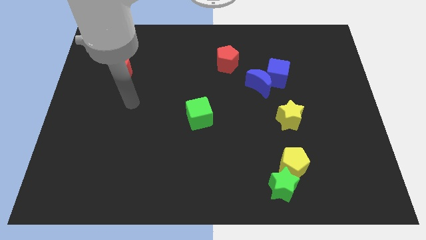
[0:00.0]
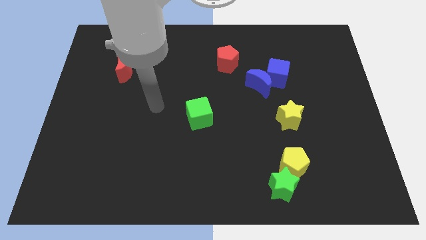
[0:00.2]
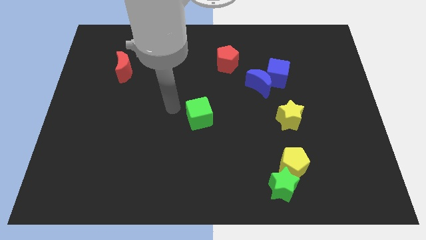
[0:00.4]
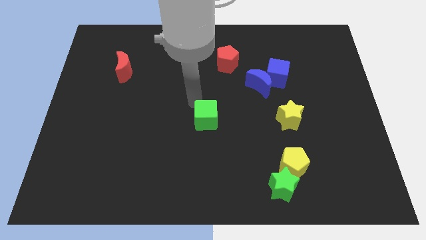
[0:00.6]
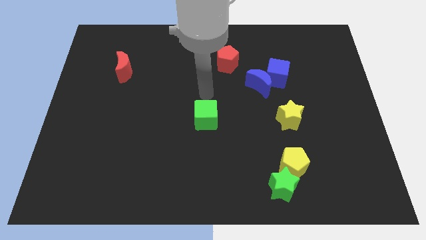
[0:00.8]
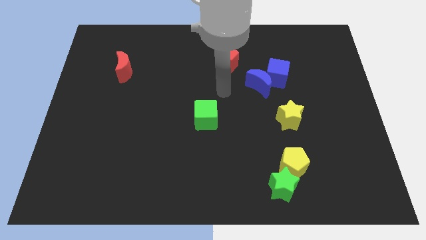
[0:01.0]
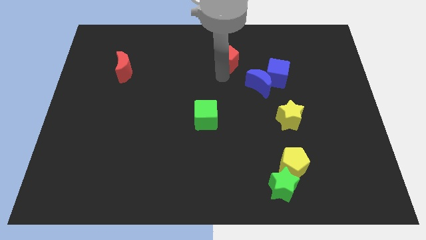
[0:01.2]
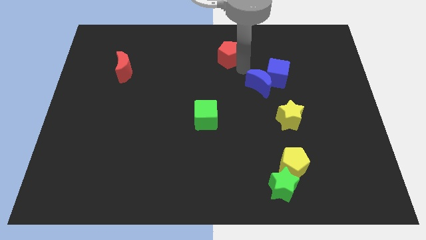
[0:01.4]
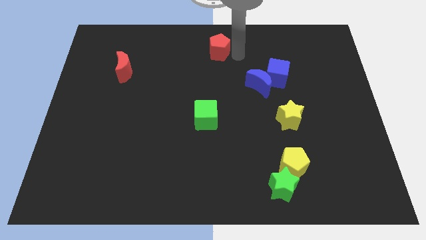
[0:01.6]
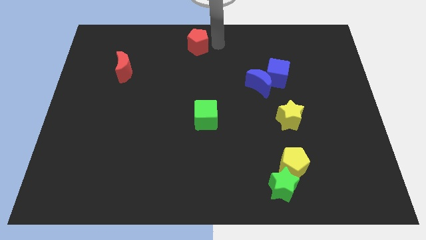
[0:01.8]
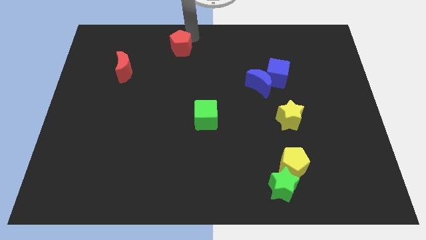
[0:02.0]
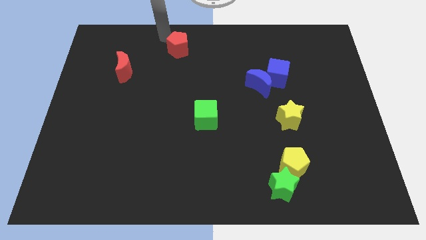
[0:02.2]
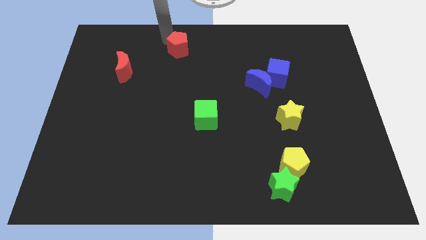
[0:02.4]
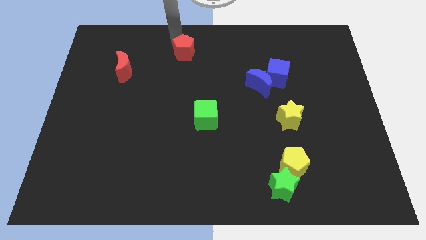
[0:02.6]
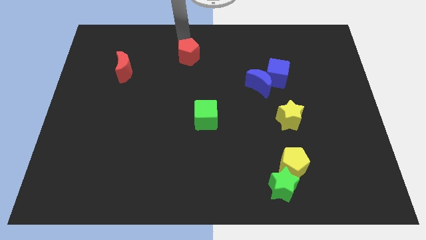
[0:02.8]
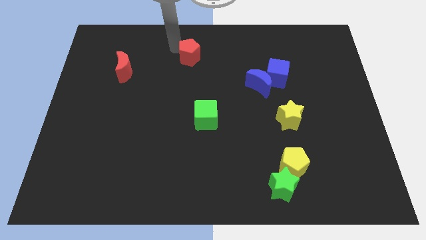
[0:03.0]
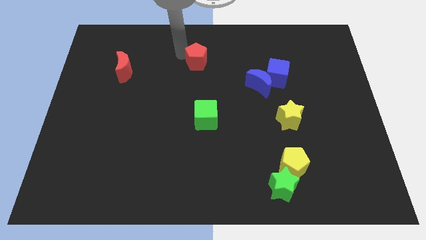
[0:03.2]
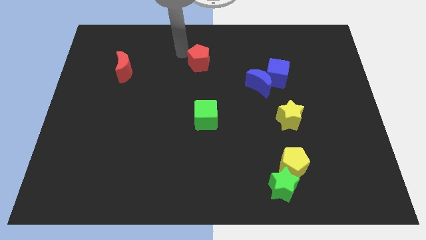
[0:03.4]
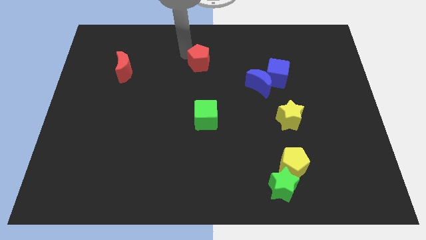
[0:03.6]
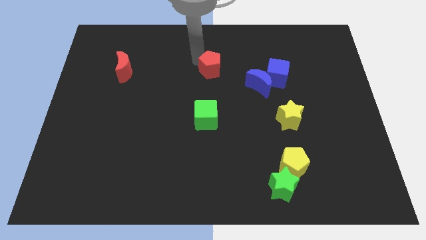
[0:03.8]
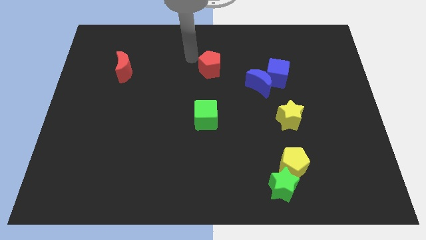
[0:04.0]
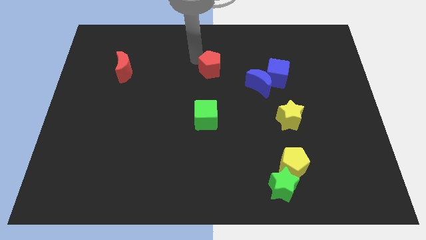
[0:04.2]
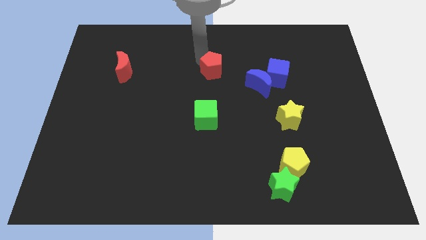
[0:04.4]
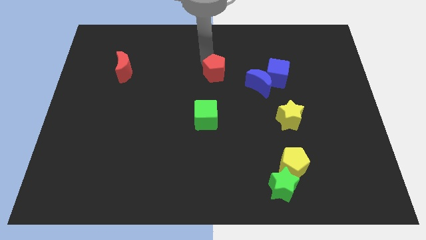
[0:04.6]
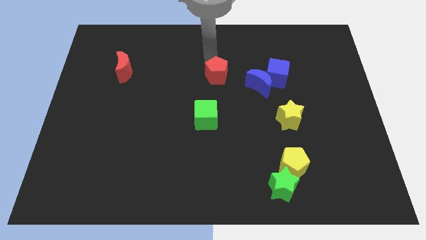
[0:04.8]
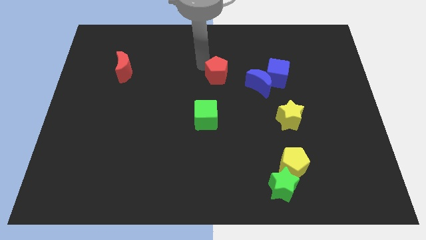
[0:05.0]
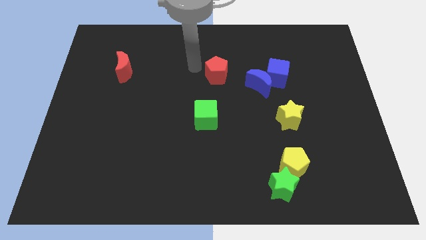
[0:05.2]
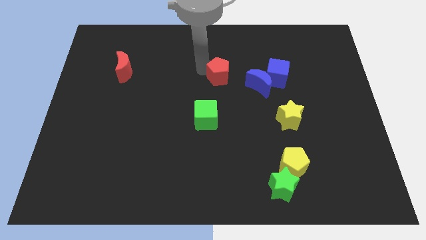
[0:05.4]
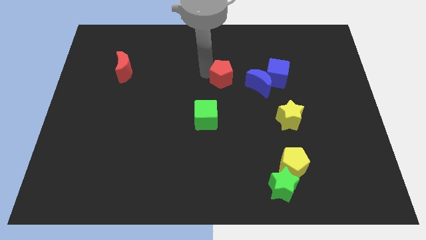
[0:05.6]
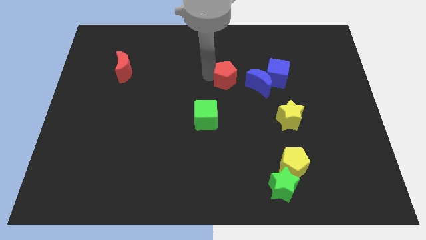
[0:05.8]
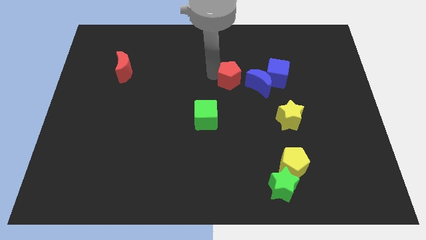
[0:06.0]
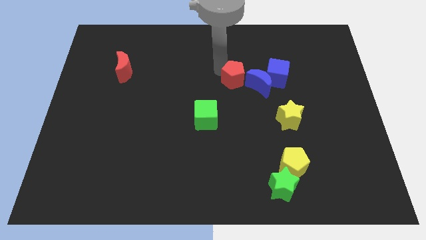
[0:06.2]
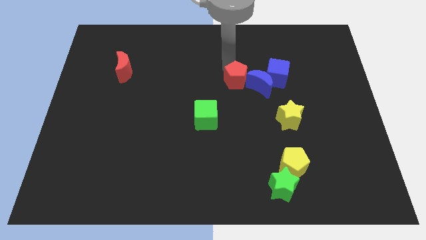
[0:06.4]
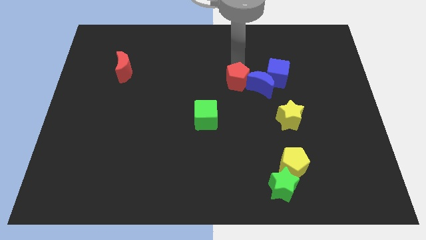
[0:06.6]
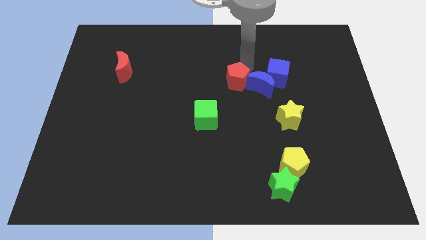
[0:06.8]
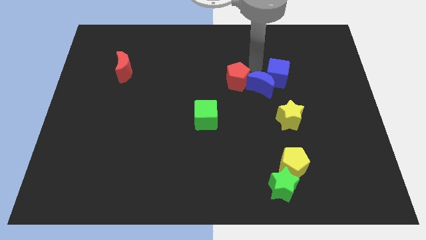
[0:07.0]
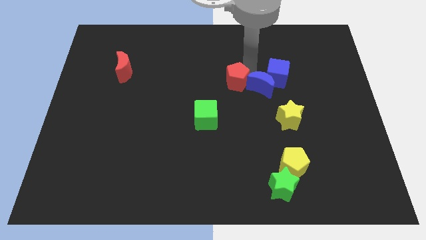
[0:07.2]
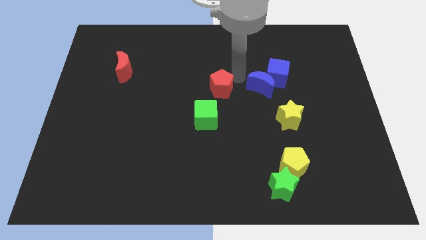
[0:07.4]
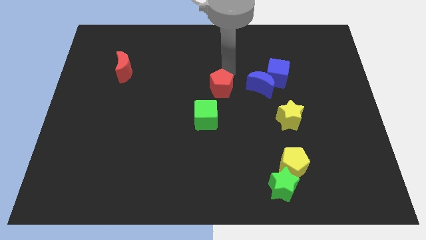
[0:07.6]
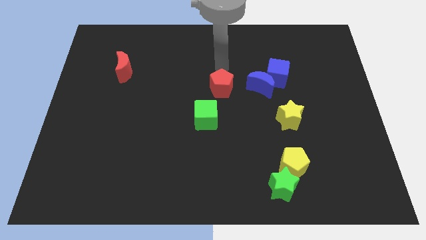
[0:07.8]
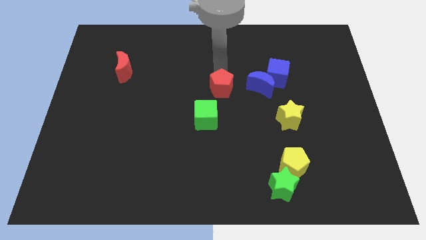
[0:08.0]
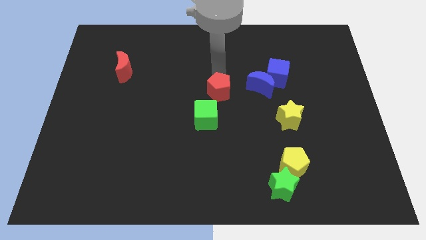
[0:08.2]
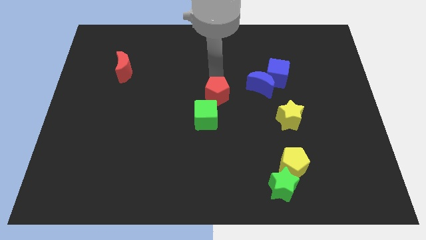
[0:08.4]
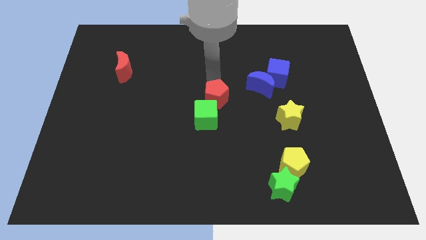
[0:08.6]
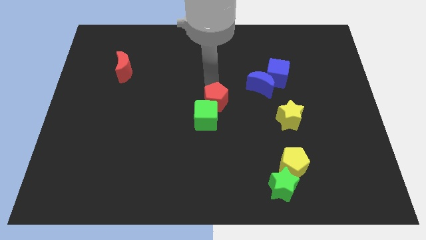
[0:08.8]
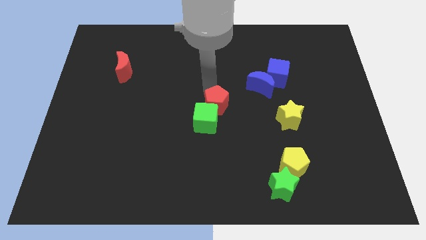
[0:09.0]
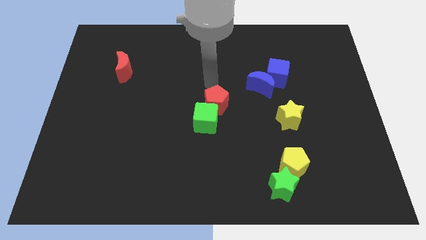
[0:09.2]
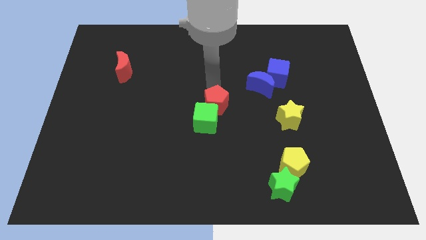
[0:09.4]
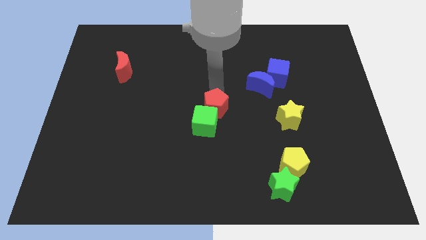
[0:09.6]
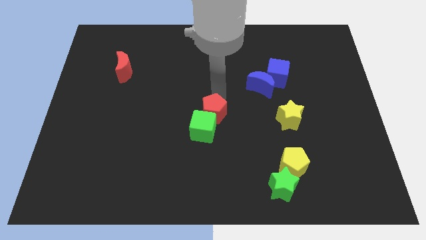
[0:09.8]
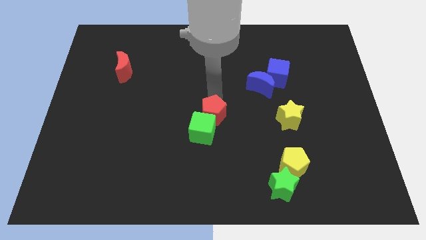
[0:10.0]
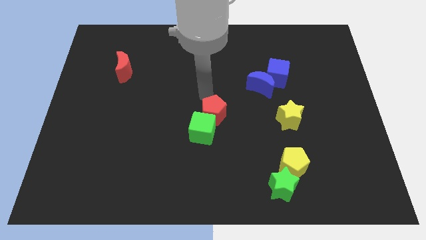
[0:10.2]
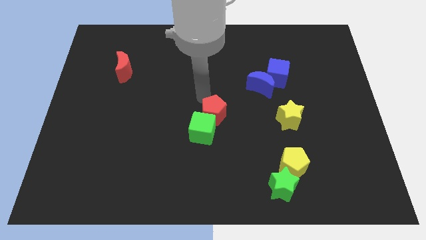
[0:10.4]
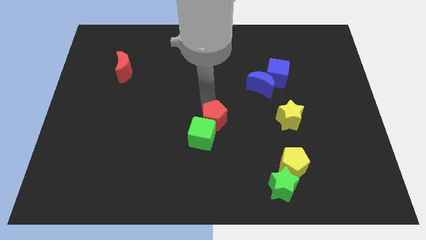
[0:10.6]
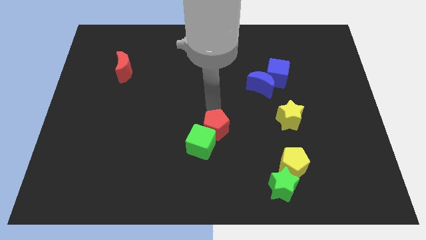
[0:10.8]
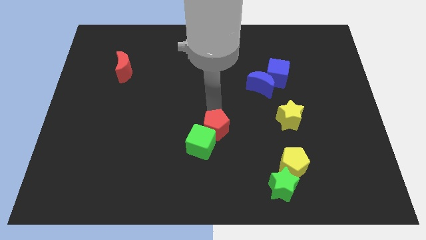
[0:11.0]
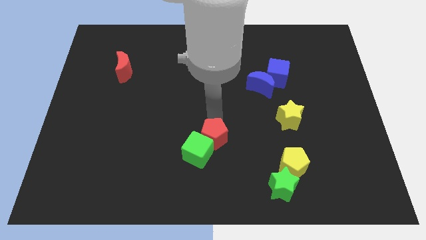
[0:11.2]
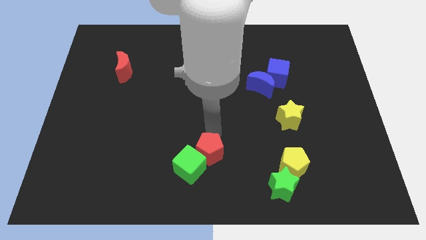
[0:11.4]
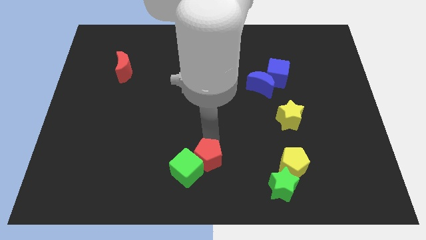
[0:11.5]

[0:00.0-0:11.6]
slide the red pentagon to the bottom side

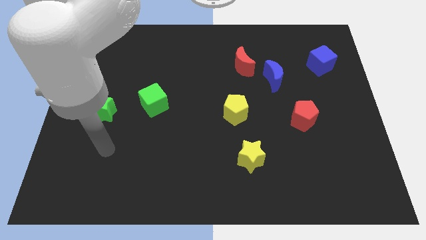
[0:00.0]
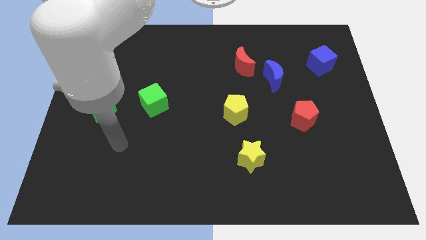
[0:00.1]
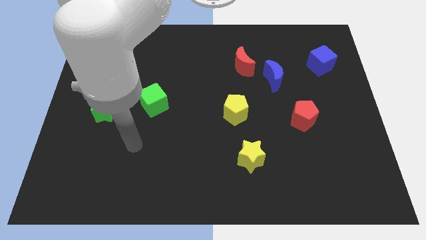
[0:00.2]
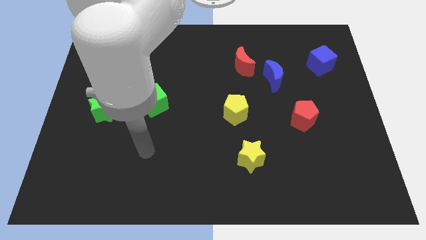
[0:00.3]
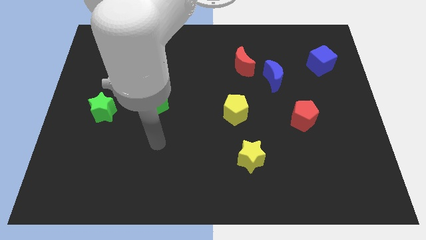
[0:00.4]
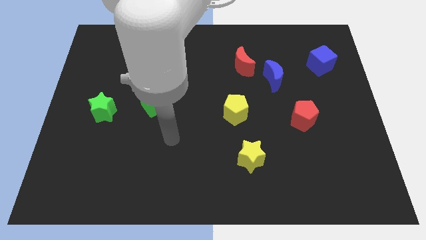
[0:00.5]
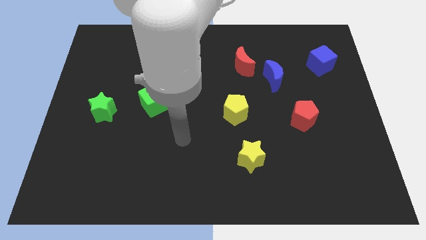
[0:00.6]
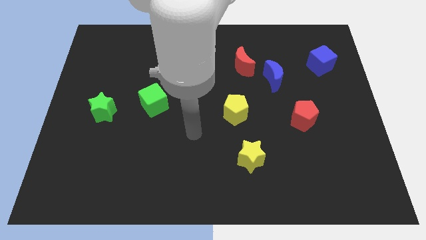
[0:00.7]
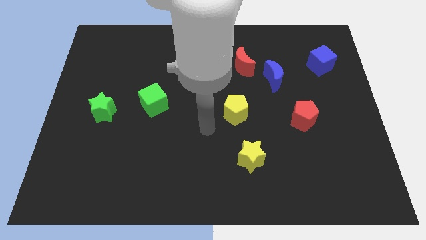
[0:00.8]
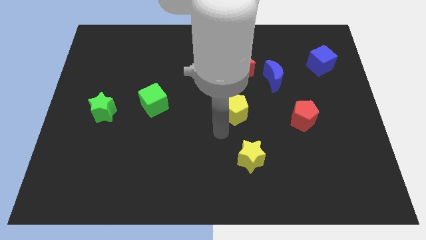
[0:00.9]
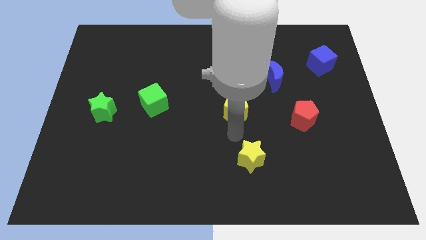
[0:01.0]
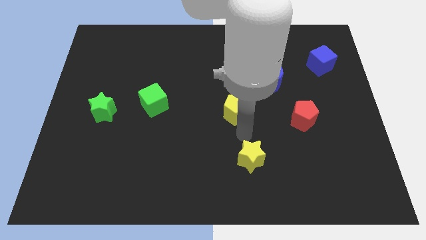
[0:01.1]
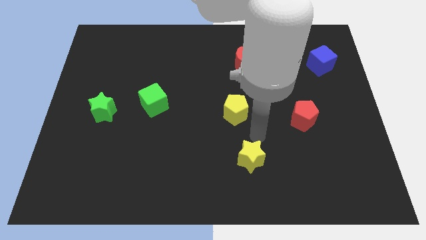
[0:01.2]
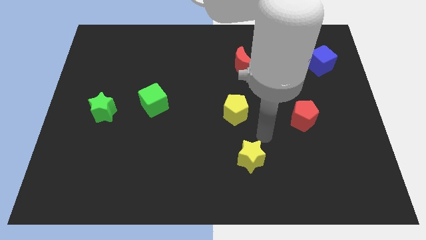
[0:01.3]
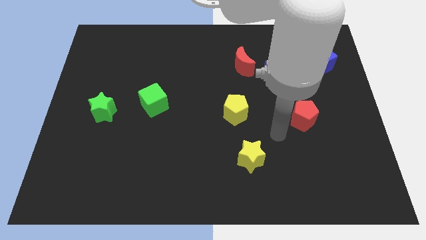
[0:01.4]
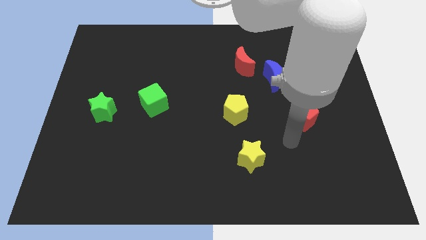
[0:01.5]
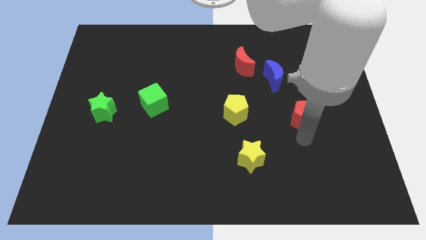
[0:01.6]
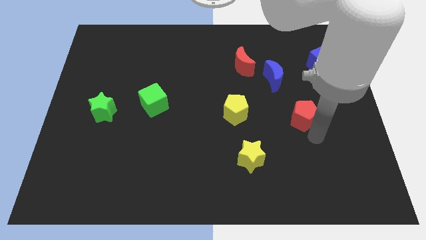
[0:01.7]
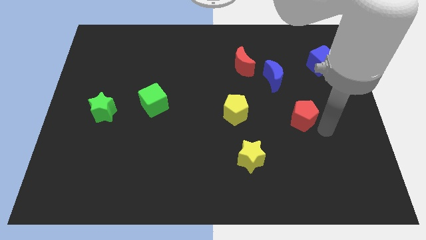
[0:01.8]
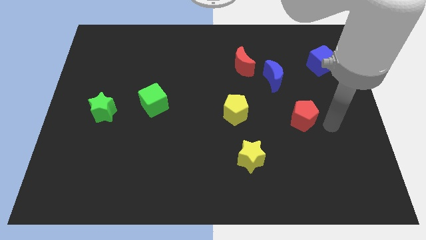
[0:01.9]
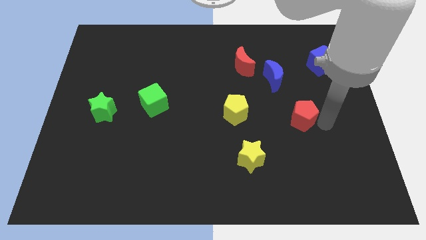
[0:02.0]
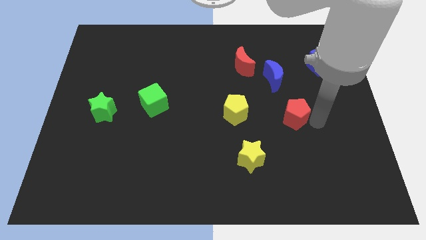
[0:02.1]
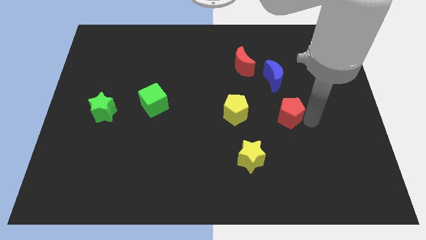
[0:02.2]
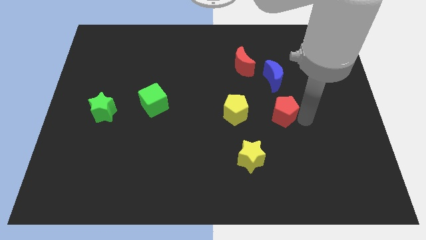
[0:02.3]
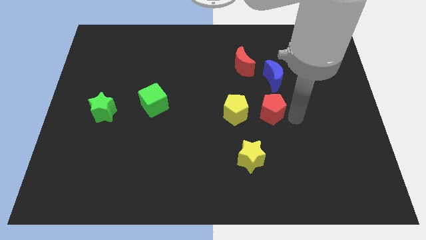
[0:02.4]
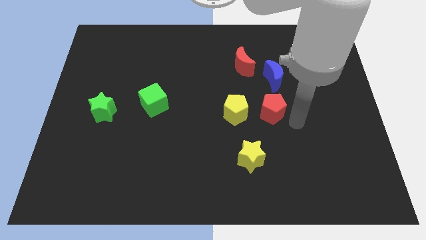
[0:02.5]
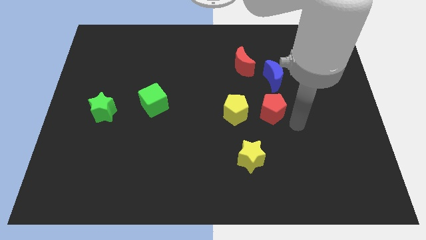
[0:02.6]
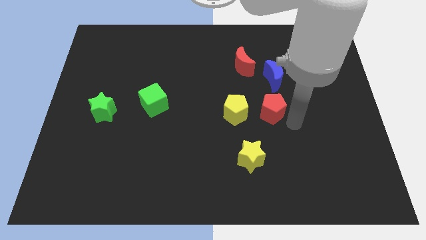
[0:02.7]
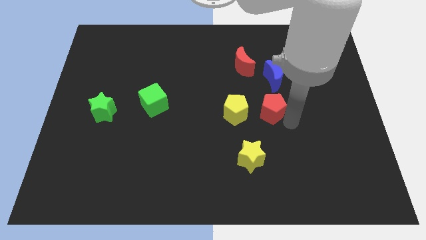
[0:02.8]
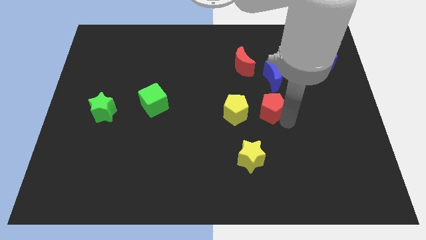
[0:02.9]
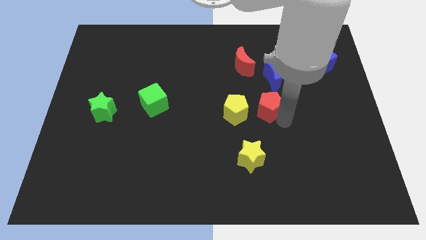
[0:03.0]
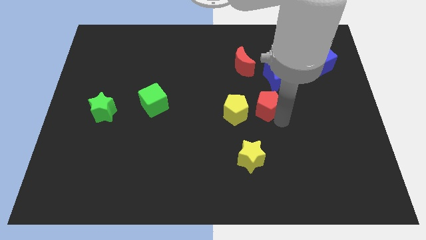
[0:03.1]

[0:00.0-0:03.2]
push the red pentagon to the middle of the board
